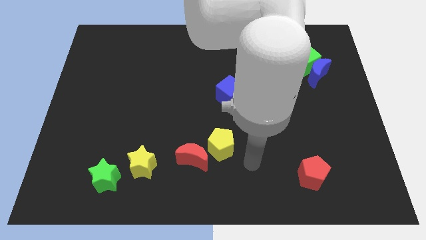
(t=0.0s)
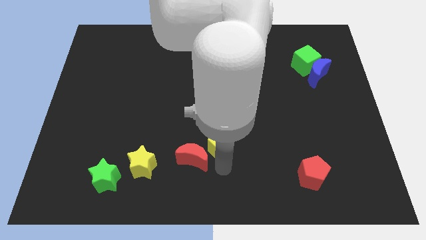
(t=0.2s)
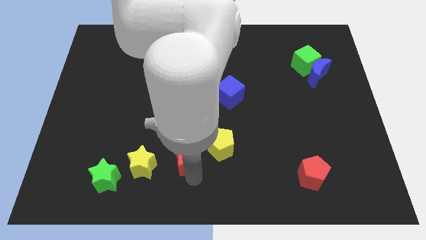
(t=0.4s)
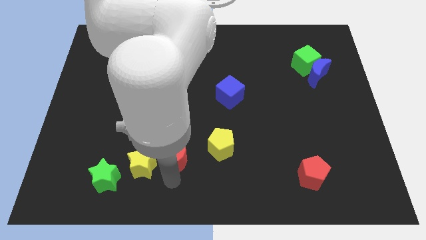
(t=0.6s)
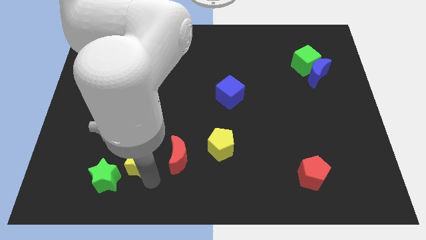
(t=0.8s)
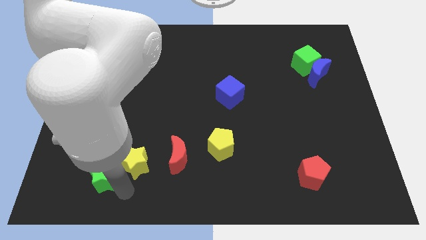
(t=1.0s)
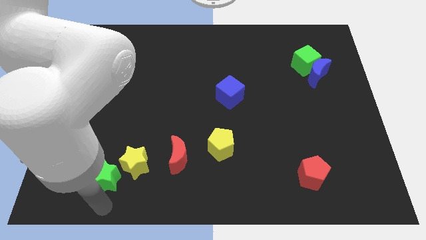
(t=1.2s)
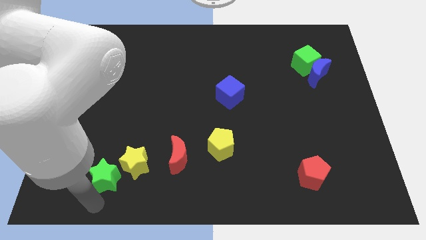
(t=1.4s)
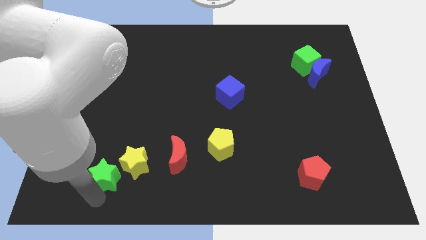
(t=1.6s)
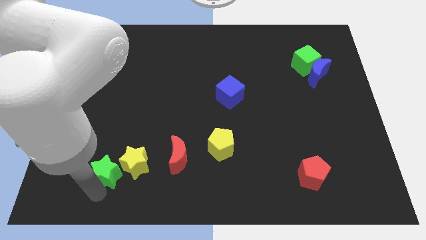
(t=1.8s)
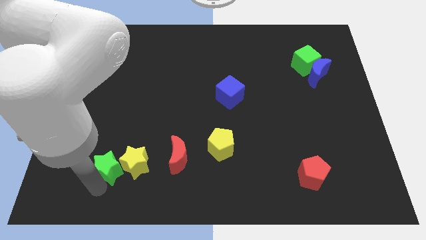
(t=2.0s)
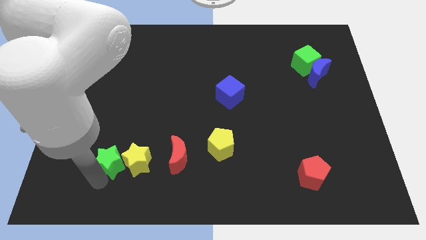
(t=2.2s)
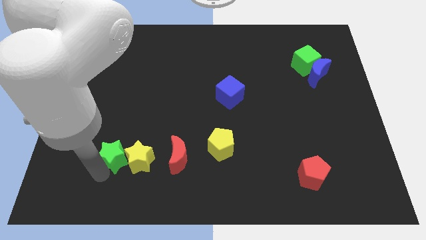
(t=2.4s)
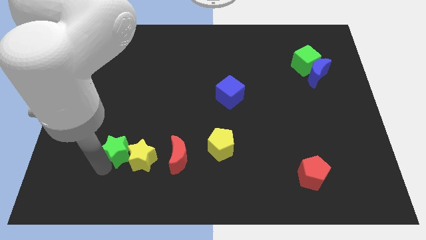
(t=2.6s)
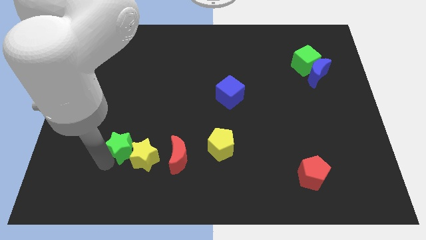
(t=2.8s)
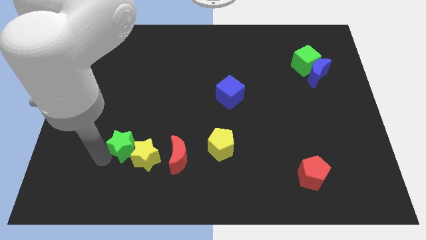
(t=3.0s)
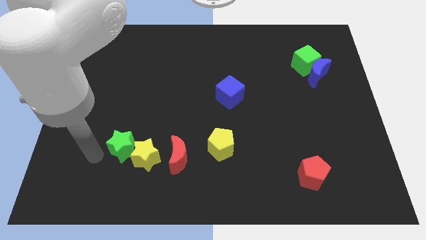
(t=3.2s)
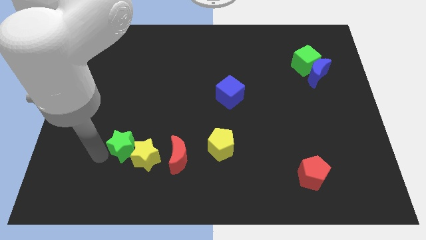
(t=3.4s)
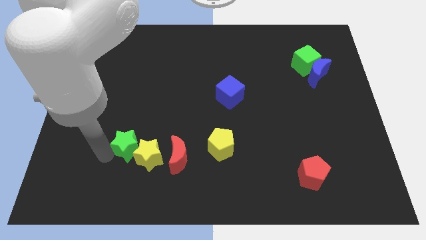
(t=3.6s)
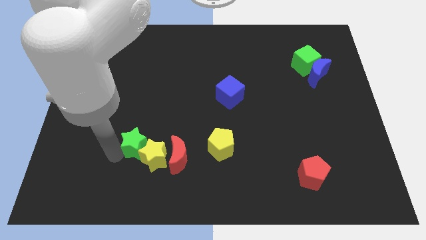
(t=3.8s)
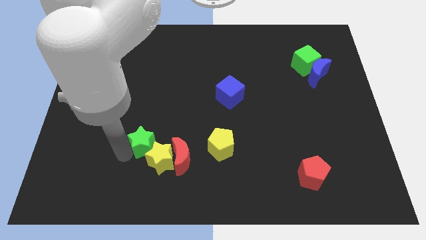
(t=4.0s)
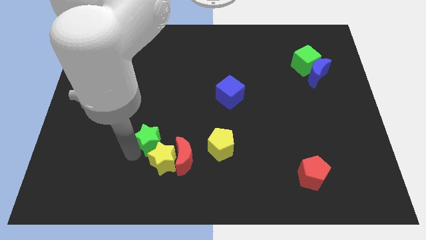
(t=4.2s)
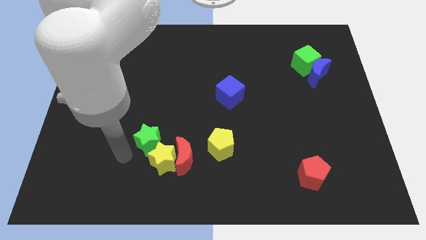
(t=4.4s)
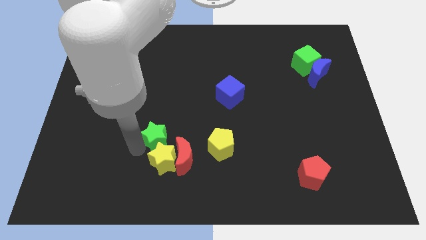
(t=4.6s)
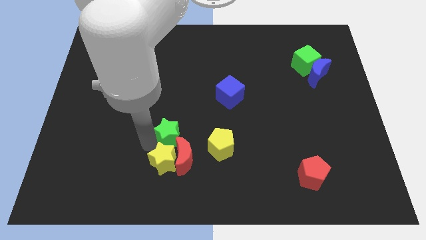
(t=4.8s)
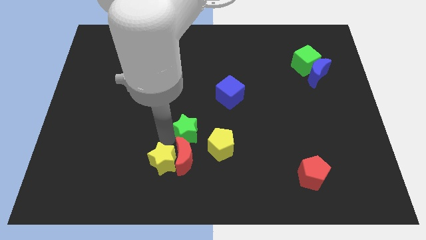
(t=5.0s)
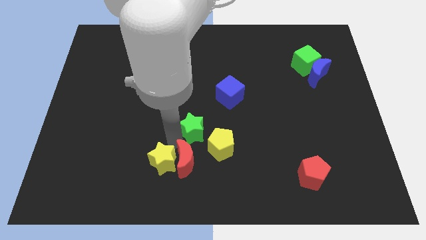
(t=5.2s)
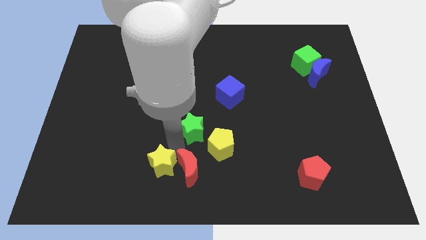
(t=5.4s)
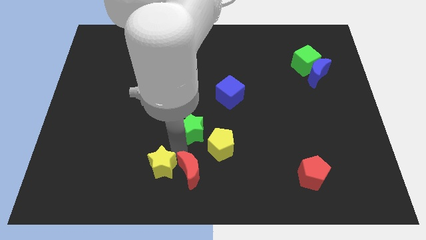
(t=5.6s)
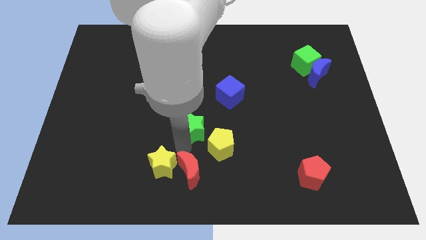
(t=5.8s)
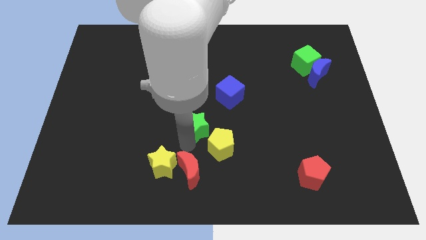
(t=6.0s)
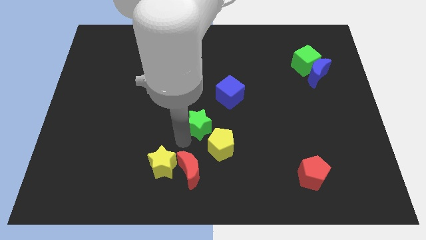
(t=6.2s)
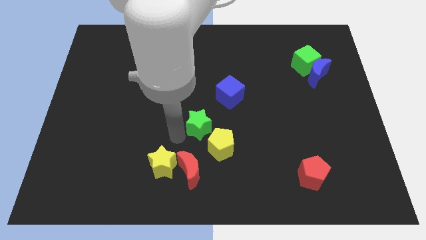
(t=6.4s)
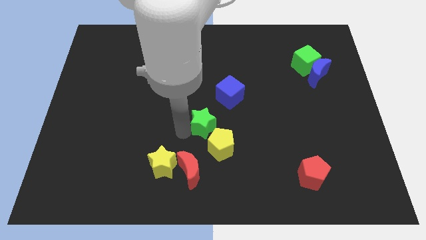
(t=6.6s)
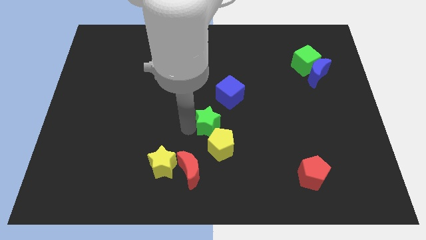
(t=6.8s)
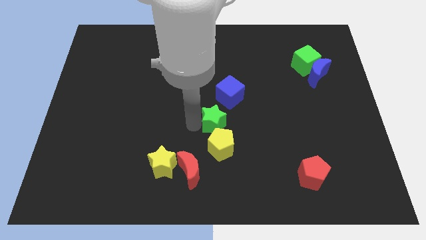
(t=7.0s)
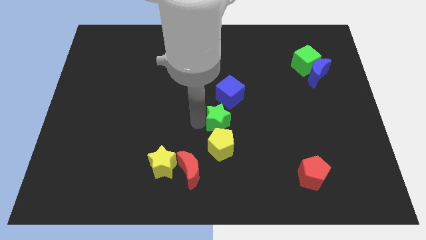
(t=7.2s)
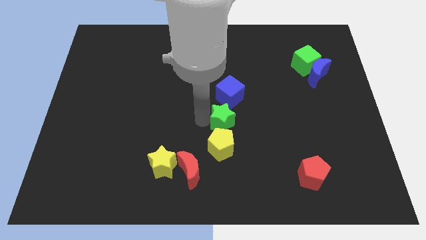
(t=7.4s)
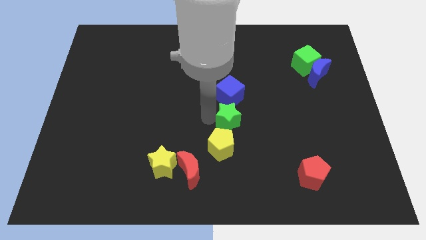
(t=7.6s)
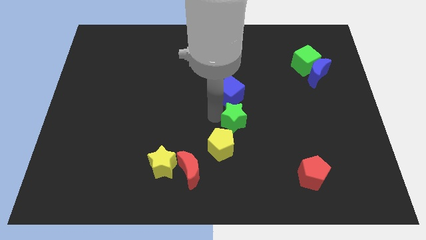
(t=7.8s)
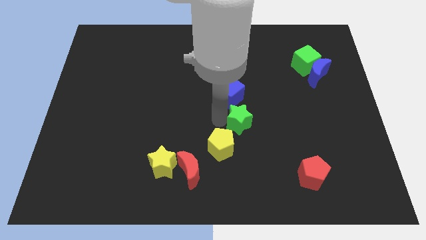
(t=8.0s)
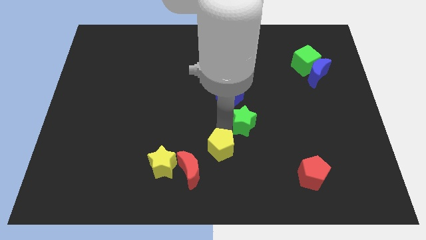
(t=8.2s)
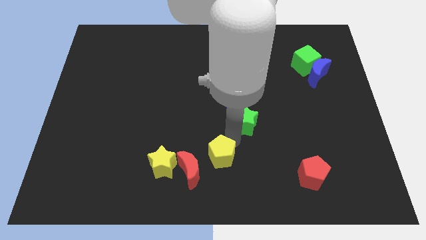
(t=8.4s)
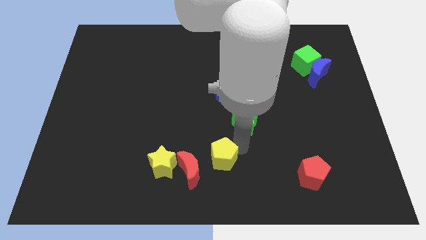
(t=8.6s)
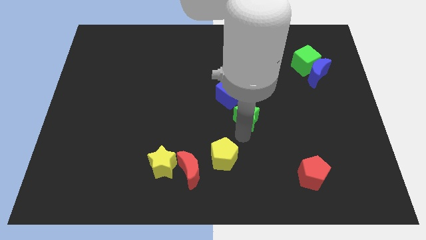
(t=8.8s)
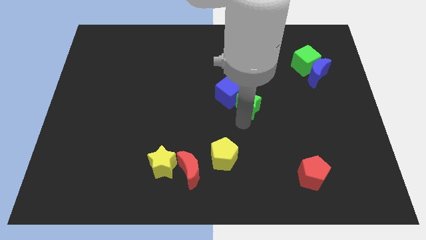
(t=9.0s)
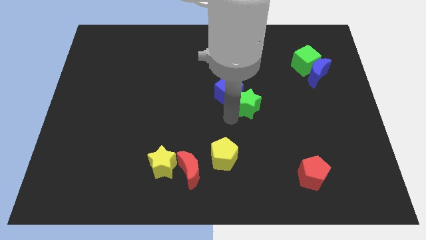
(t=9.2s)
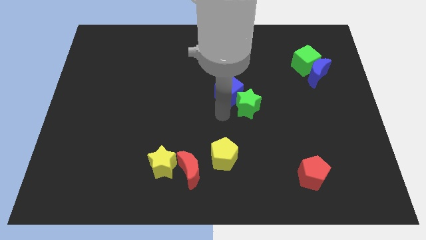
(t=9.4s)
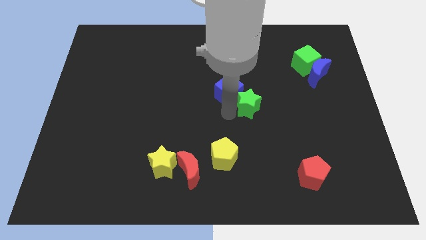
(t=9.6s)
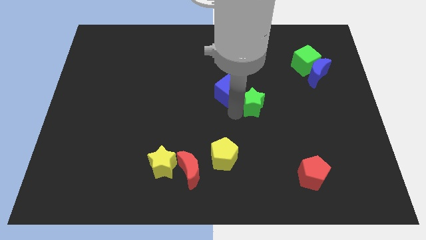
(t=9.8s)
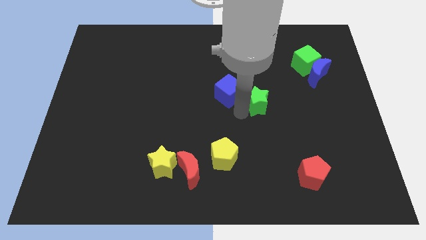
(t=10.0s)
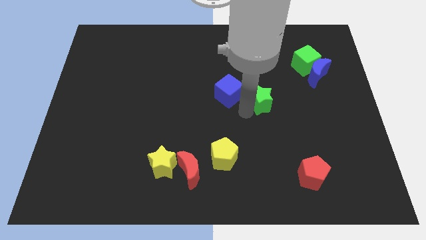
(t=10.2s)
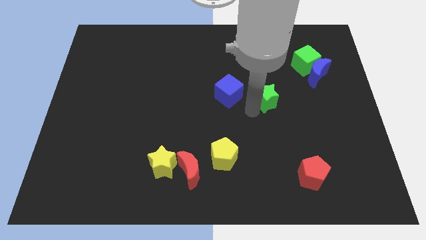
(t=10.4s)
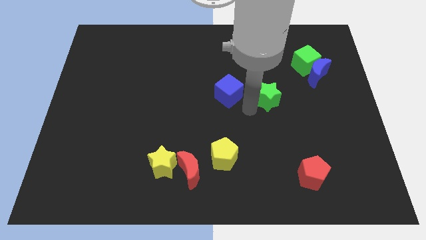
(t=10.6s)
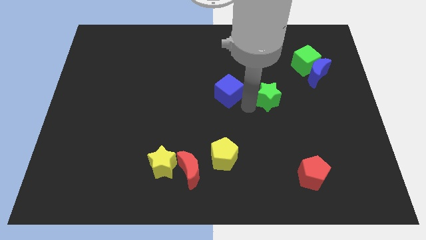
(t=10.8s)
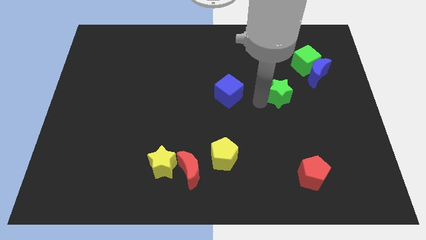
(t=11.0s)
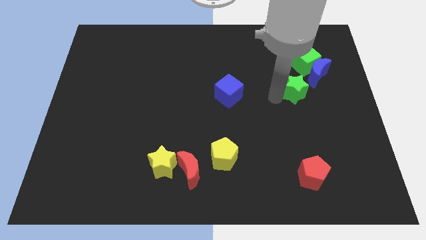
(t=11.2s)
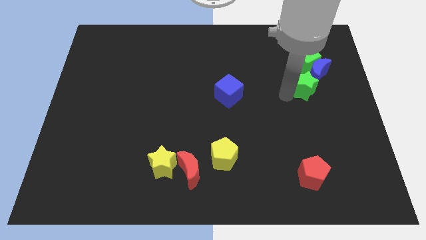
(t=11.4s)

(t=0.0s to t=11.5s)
push the green star towards the blue moon

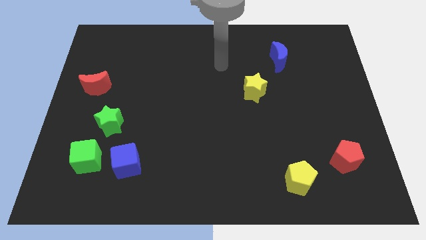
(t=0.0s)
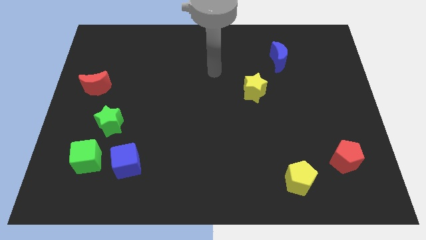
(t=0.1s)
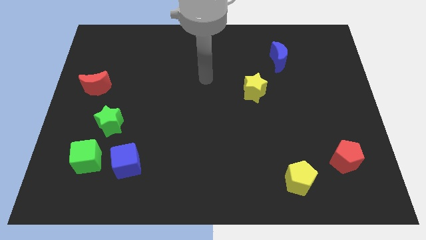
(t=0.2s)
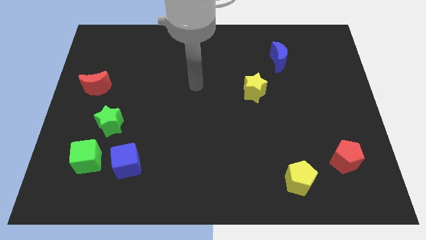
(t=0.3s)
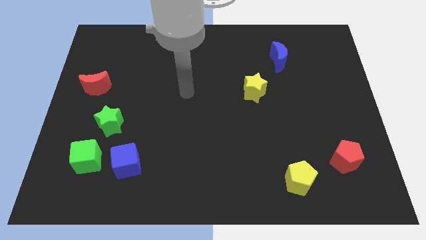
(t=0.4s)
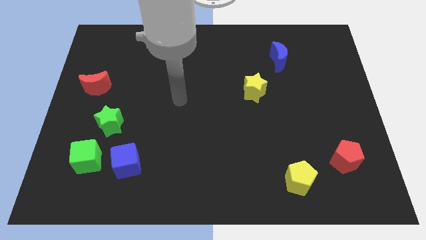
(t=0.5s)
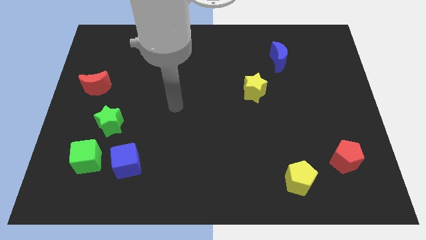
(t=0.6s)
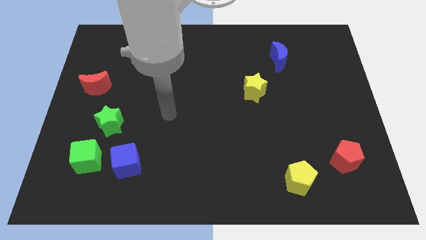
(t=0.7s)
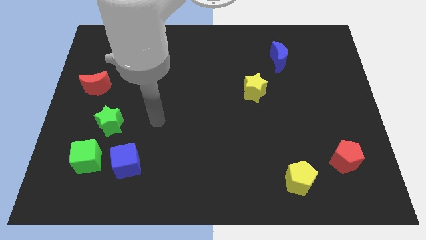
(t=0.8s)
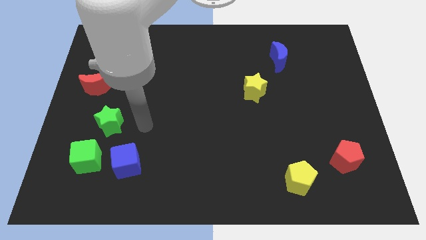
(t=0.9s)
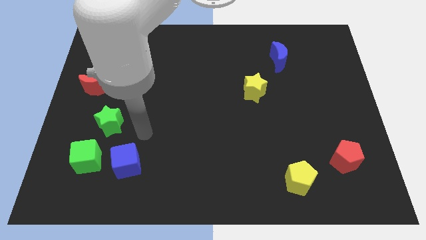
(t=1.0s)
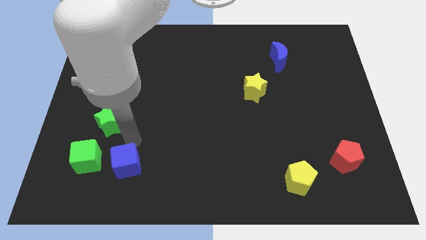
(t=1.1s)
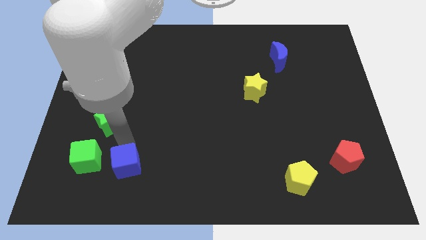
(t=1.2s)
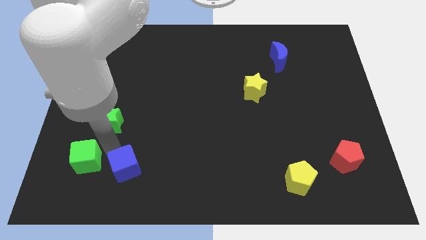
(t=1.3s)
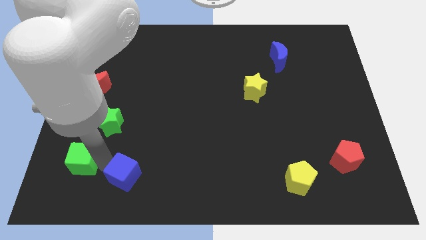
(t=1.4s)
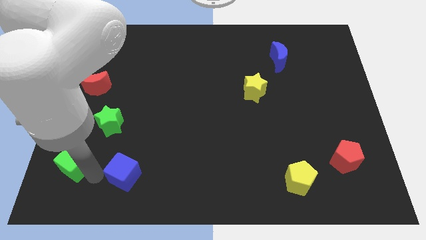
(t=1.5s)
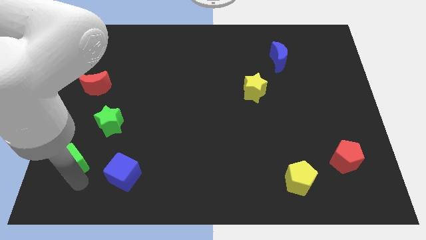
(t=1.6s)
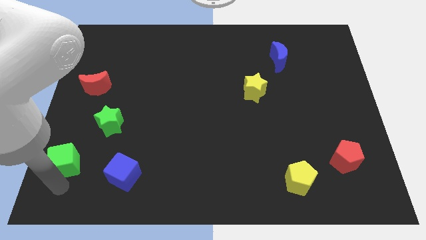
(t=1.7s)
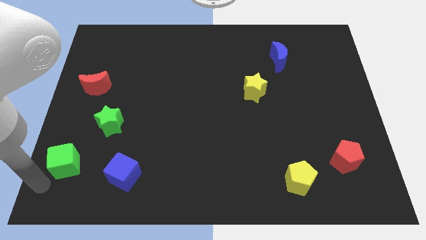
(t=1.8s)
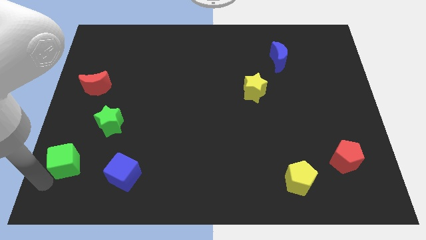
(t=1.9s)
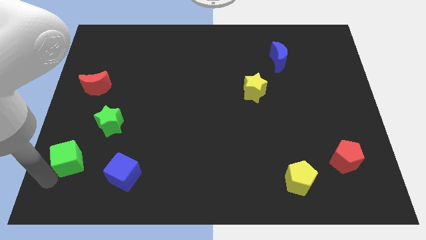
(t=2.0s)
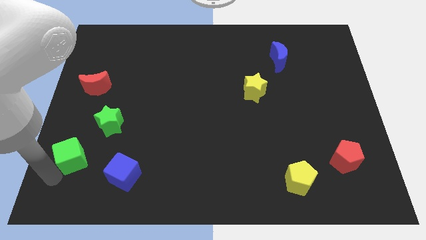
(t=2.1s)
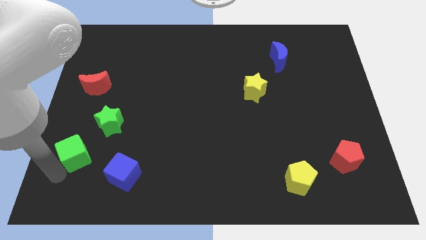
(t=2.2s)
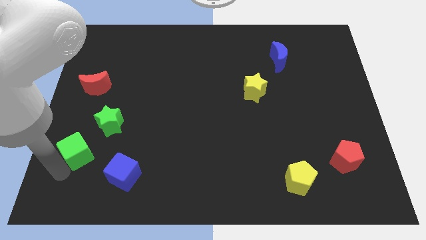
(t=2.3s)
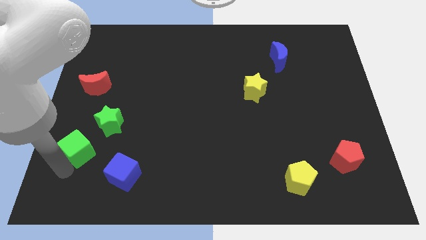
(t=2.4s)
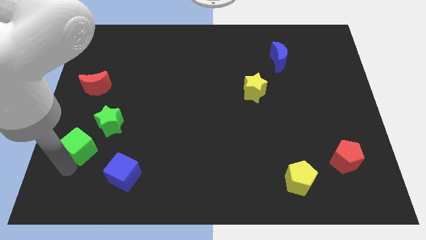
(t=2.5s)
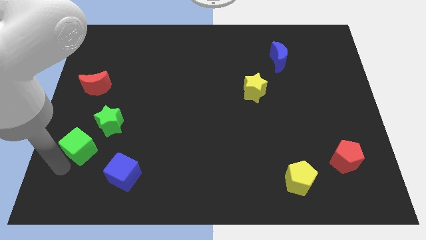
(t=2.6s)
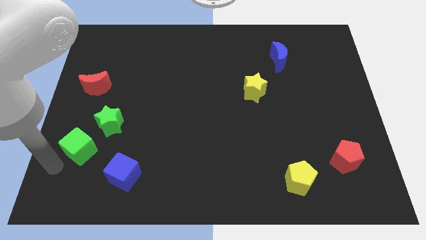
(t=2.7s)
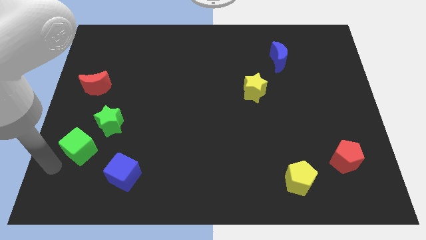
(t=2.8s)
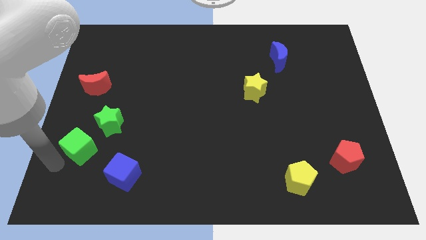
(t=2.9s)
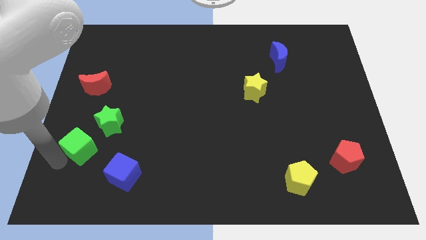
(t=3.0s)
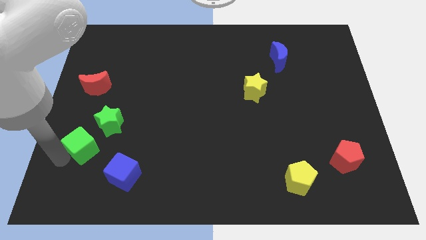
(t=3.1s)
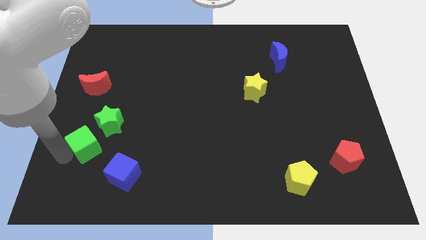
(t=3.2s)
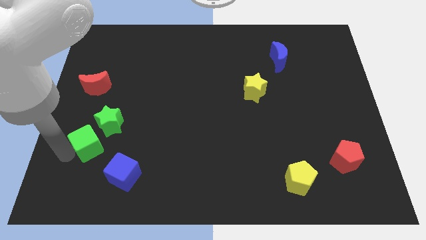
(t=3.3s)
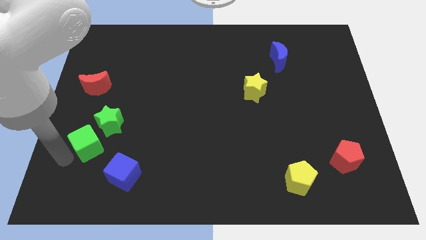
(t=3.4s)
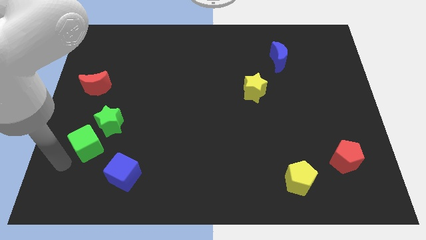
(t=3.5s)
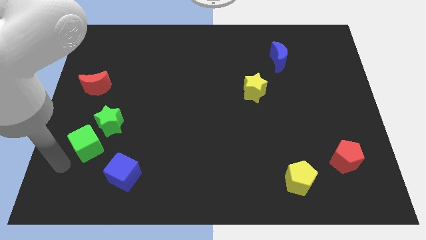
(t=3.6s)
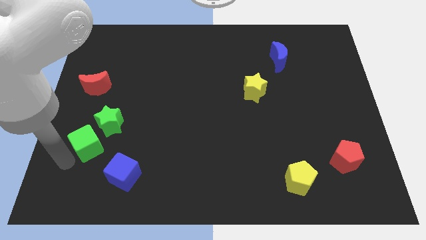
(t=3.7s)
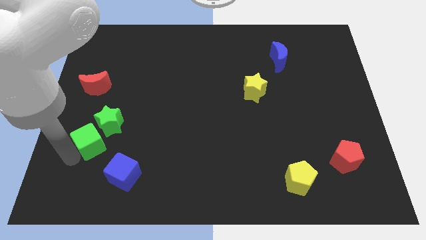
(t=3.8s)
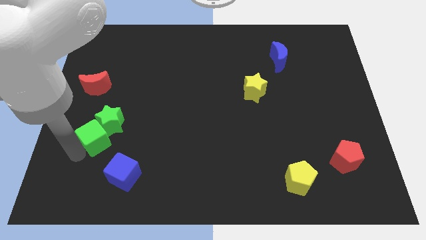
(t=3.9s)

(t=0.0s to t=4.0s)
put the green cube close to the green star
